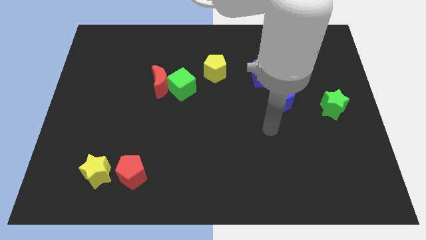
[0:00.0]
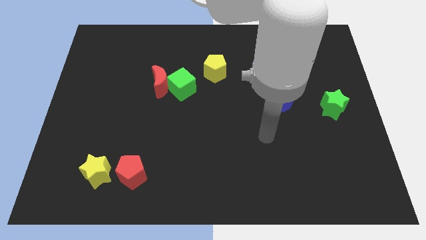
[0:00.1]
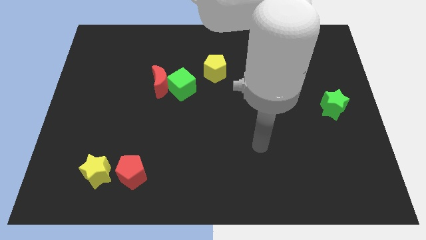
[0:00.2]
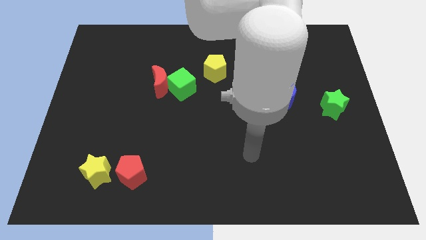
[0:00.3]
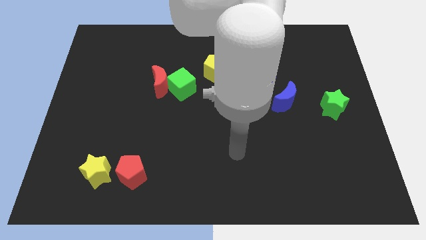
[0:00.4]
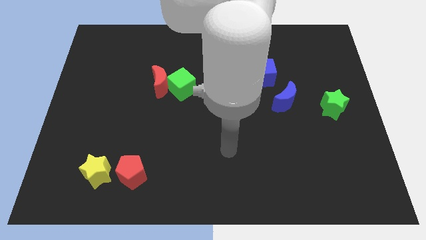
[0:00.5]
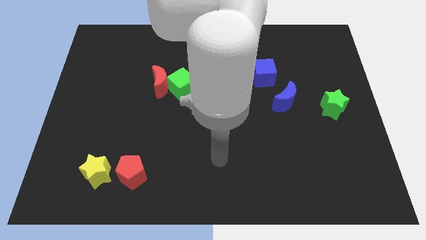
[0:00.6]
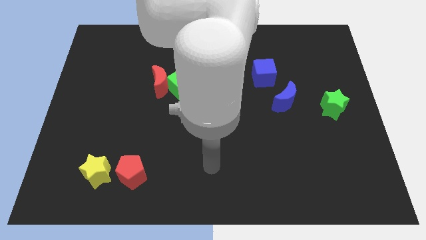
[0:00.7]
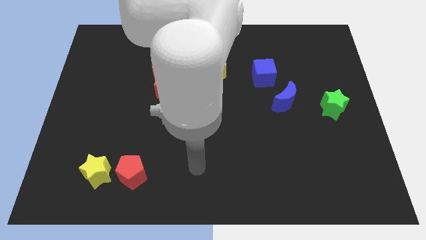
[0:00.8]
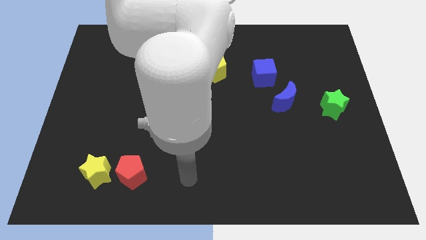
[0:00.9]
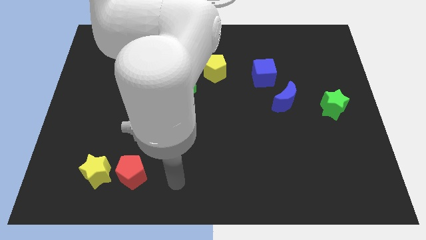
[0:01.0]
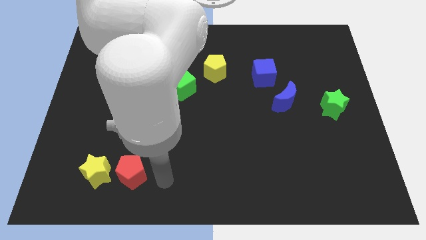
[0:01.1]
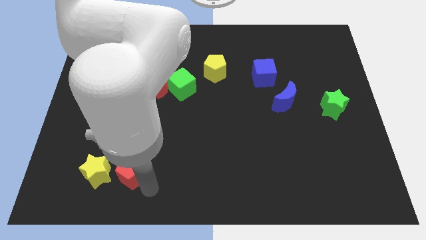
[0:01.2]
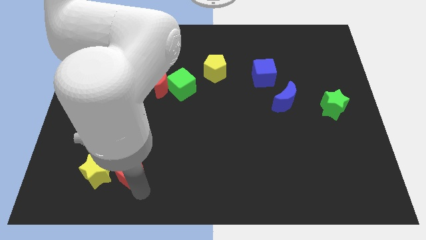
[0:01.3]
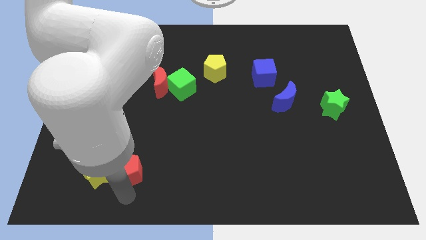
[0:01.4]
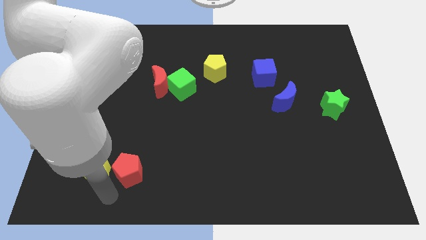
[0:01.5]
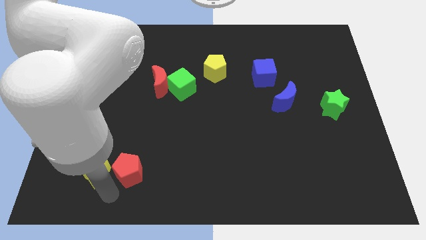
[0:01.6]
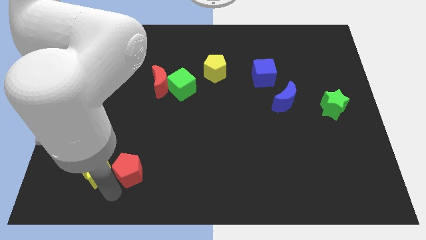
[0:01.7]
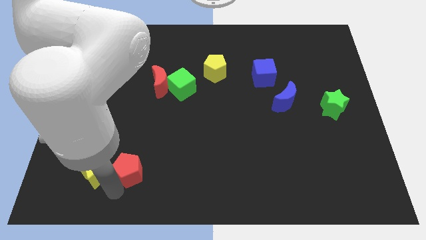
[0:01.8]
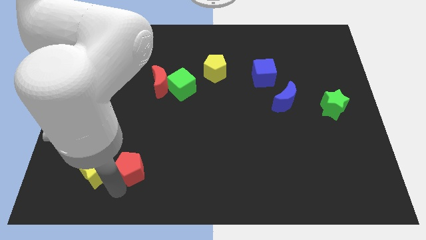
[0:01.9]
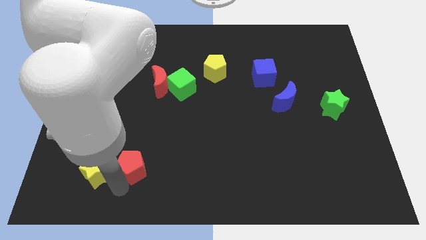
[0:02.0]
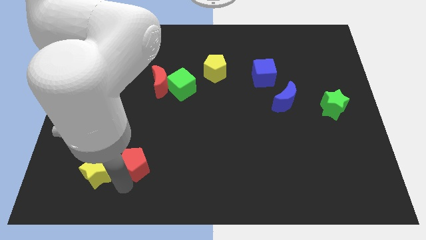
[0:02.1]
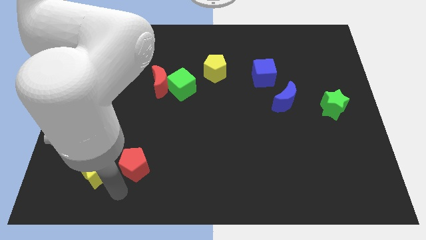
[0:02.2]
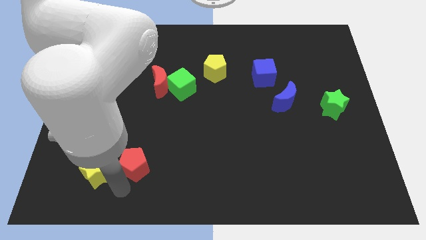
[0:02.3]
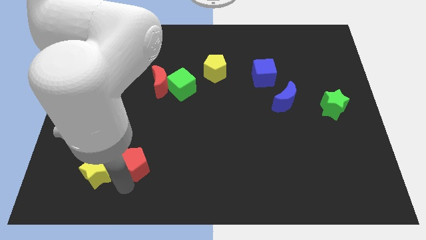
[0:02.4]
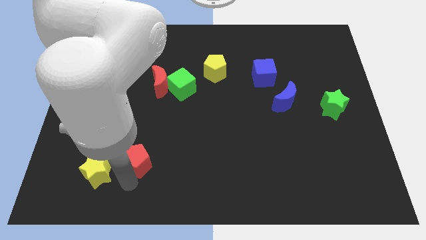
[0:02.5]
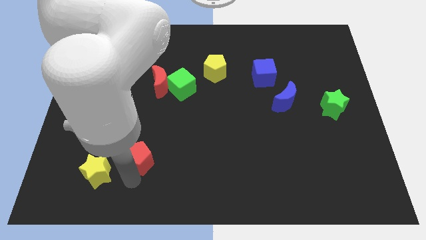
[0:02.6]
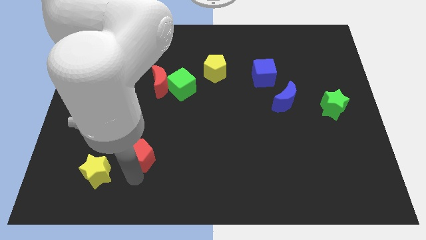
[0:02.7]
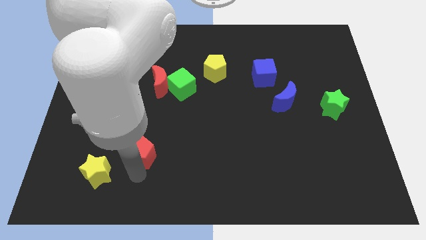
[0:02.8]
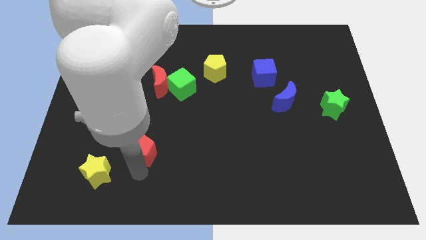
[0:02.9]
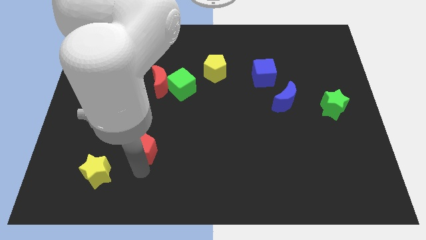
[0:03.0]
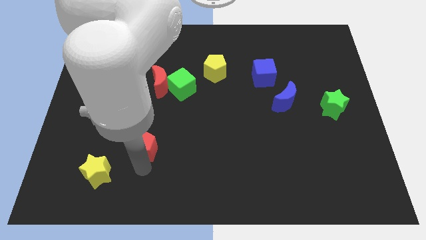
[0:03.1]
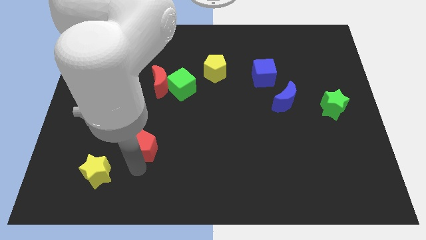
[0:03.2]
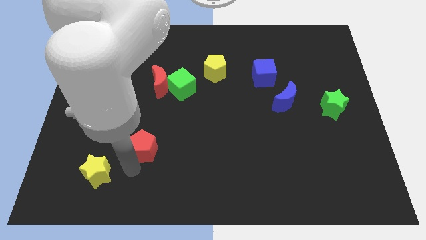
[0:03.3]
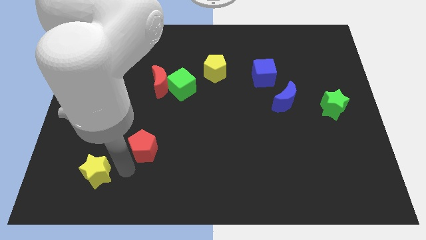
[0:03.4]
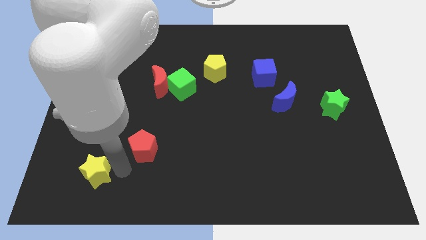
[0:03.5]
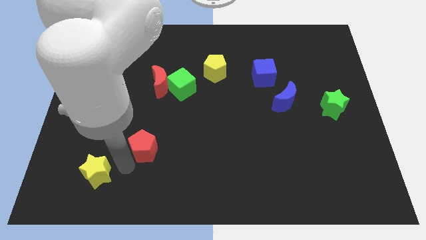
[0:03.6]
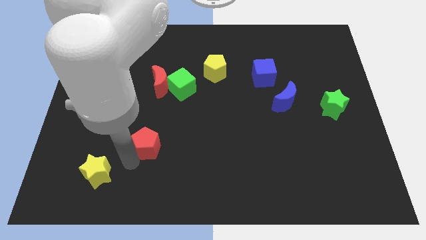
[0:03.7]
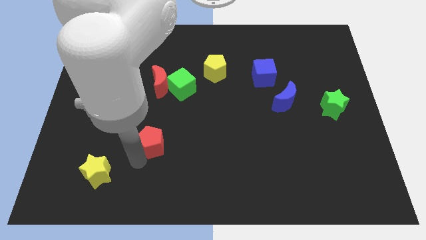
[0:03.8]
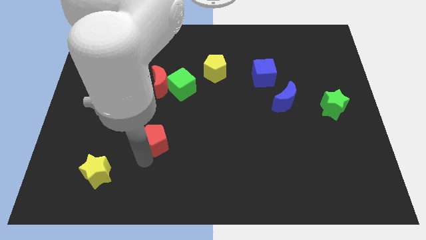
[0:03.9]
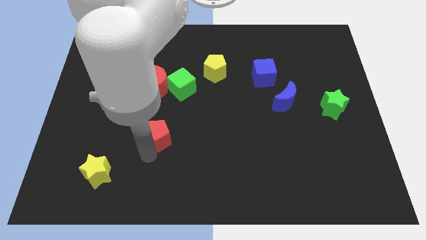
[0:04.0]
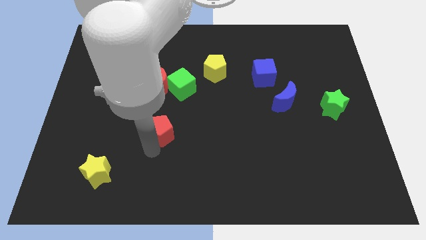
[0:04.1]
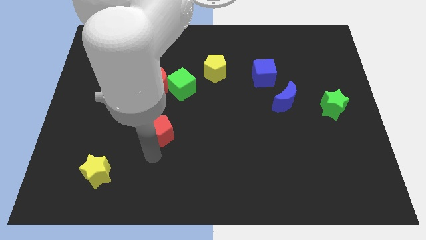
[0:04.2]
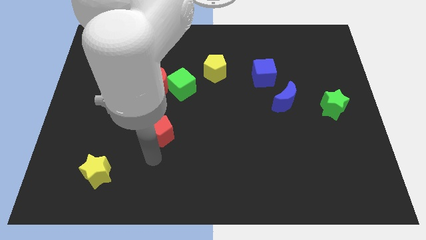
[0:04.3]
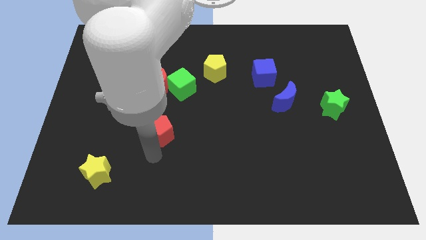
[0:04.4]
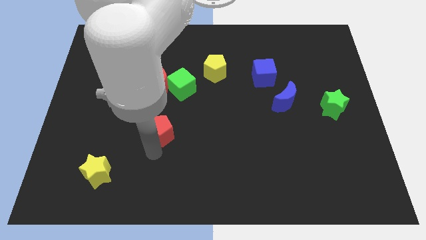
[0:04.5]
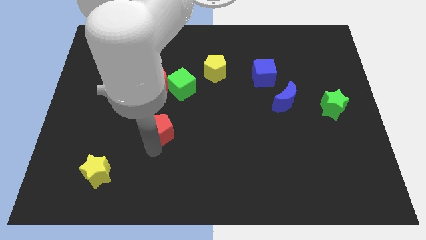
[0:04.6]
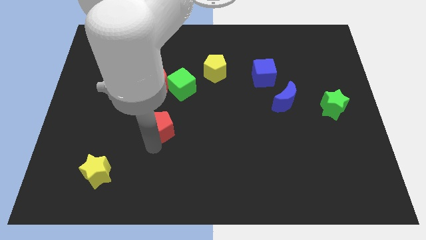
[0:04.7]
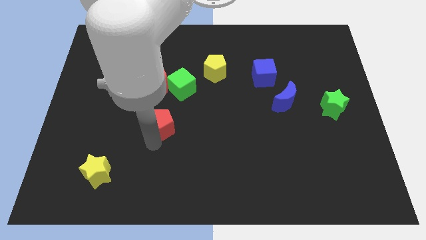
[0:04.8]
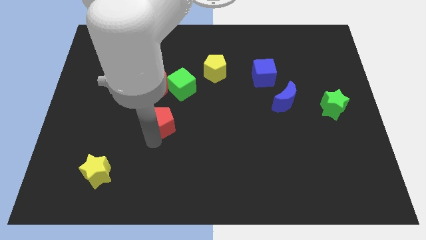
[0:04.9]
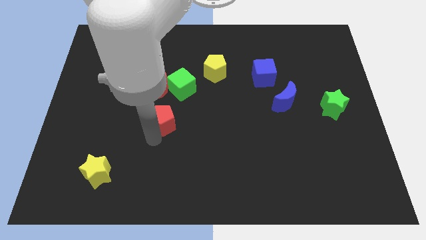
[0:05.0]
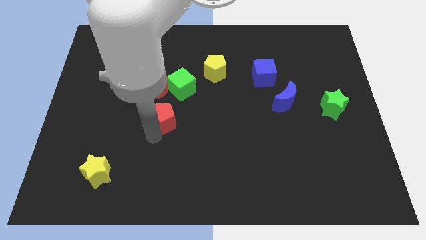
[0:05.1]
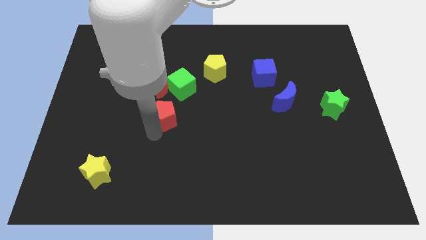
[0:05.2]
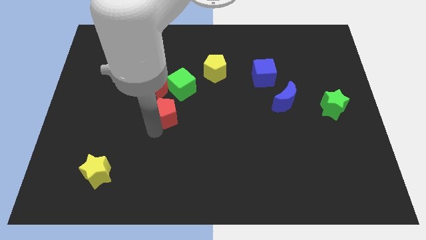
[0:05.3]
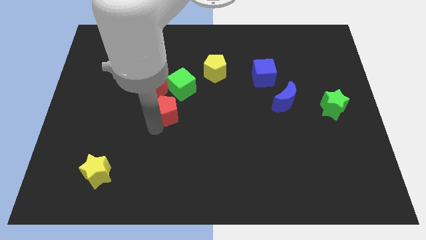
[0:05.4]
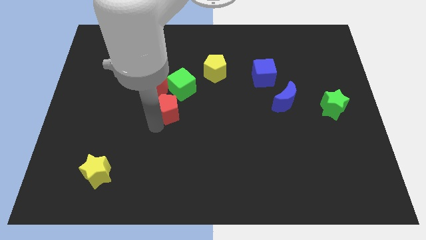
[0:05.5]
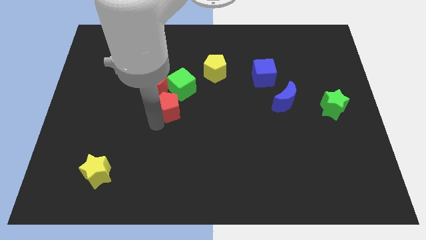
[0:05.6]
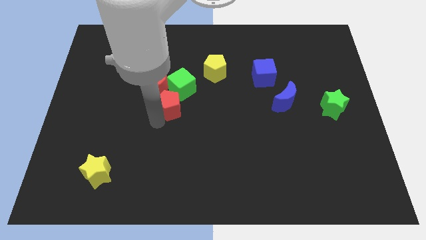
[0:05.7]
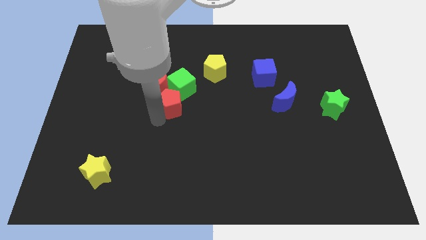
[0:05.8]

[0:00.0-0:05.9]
put the red pentagon next to the green cube

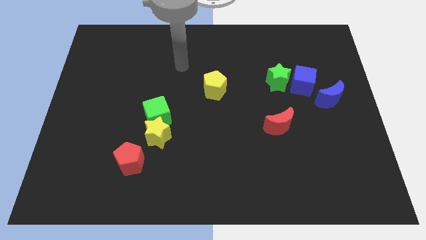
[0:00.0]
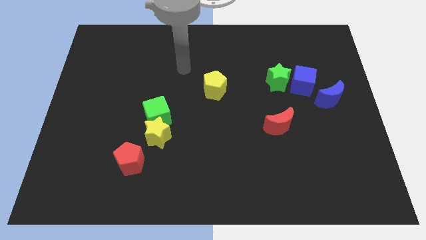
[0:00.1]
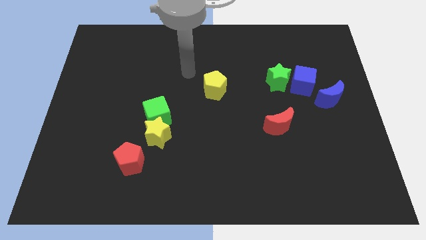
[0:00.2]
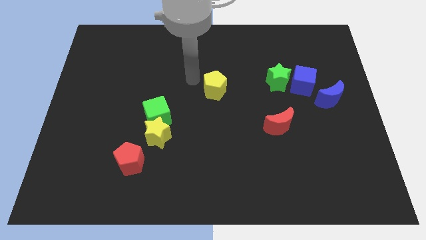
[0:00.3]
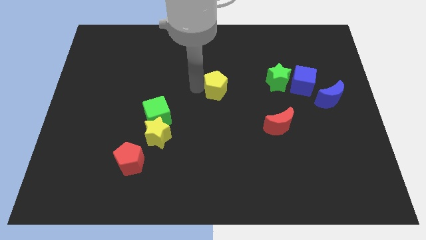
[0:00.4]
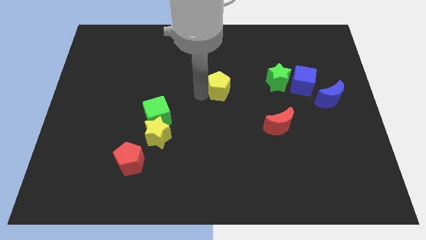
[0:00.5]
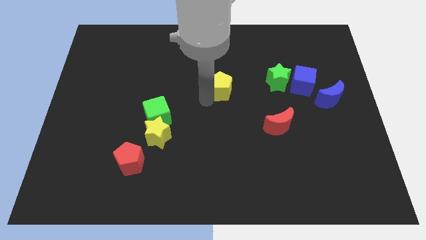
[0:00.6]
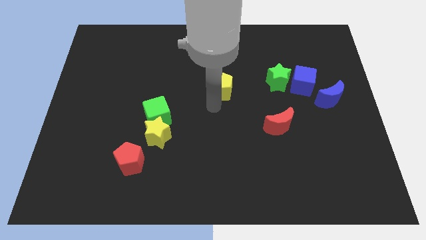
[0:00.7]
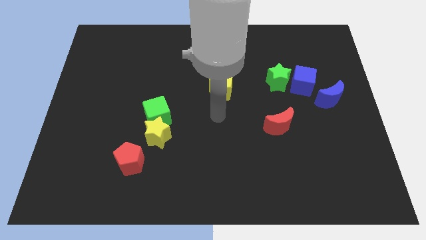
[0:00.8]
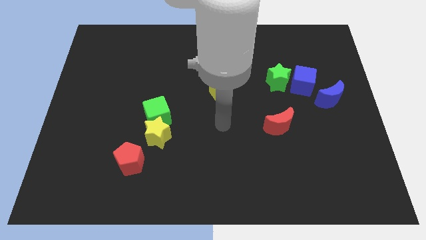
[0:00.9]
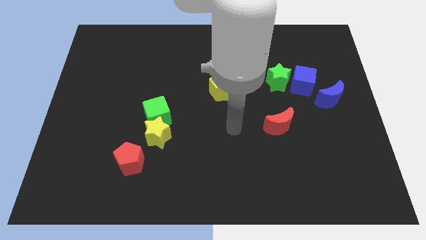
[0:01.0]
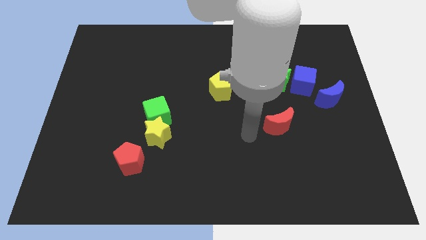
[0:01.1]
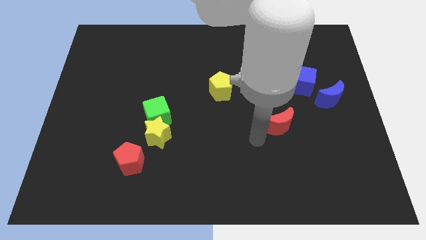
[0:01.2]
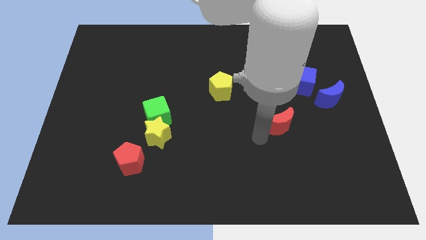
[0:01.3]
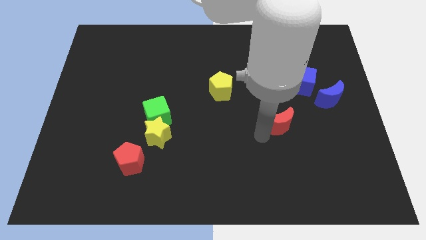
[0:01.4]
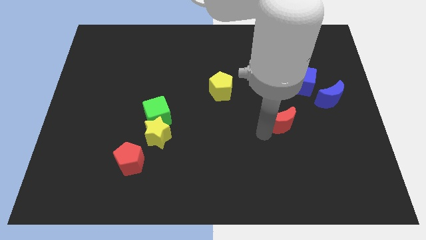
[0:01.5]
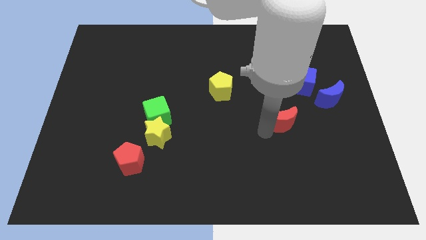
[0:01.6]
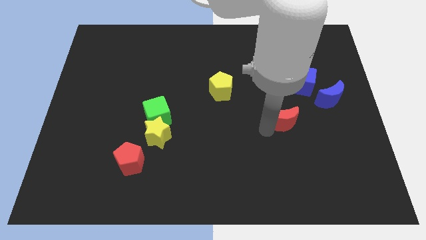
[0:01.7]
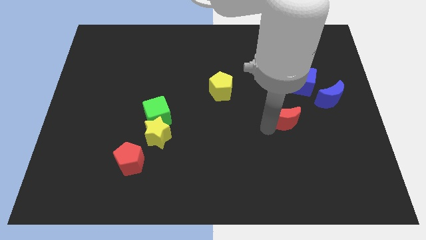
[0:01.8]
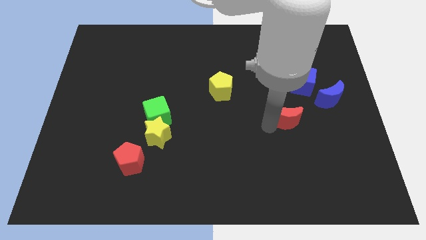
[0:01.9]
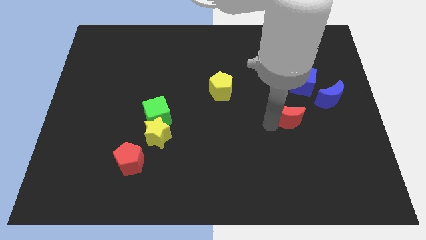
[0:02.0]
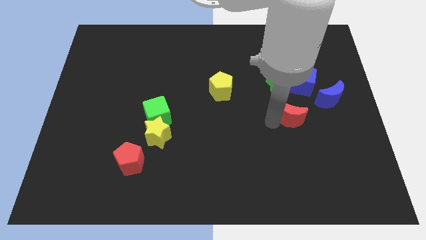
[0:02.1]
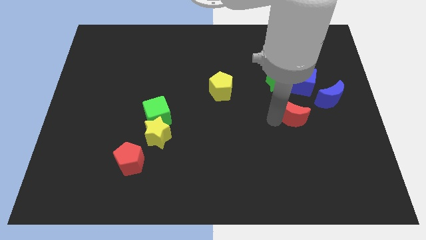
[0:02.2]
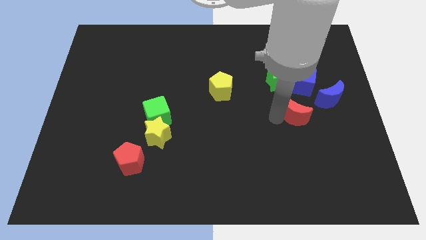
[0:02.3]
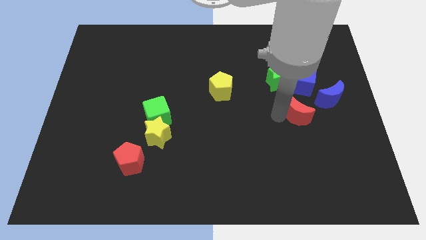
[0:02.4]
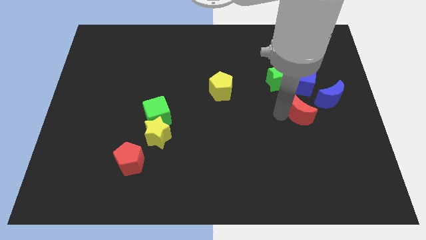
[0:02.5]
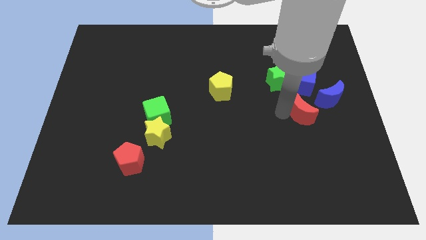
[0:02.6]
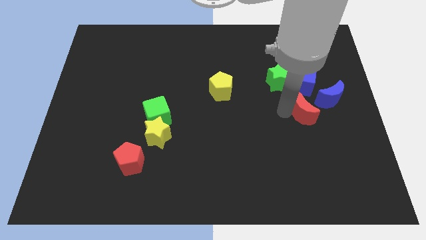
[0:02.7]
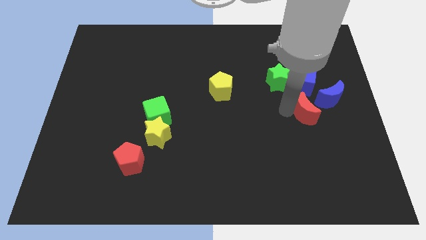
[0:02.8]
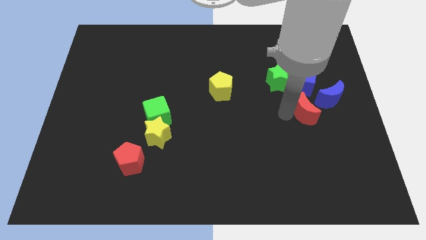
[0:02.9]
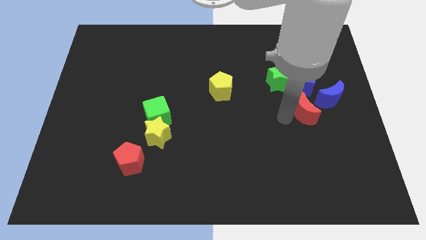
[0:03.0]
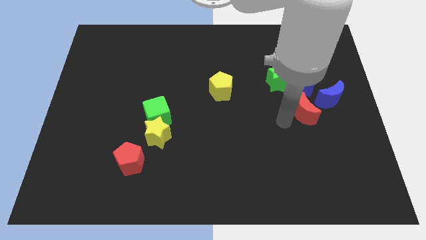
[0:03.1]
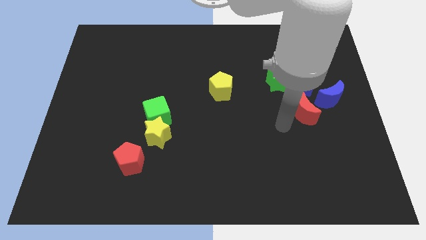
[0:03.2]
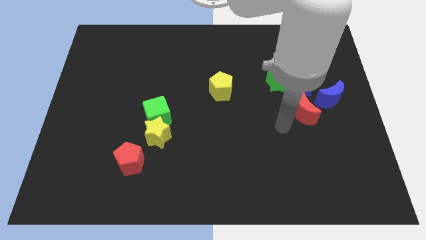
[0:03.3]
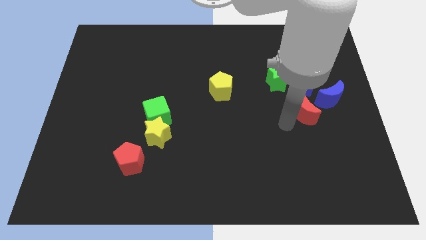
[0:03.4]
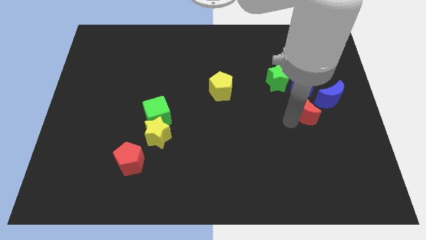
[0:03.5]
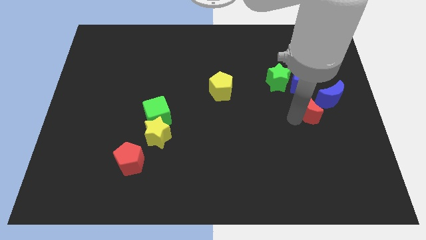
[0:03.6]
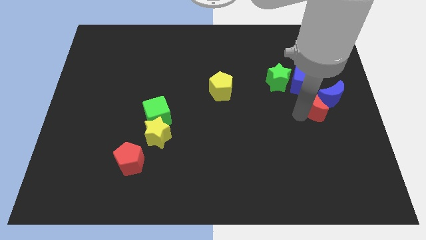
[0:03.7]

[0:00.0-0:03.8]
slide the red moon towards the blue moon
